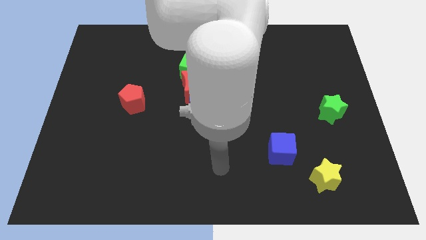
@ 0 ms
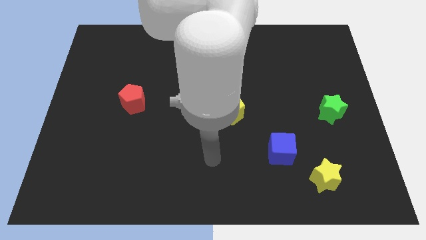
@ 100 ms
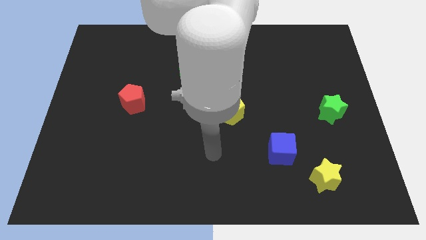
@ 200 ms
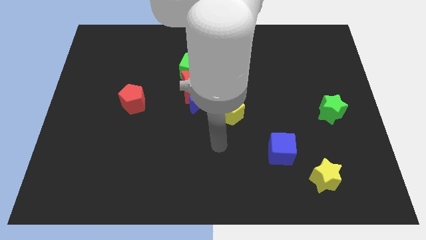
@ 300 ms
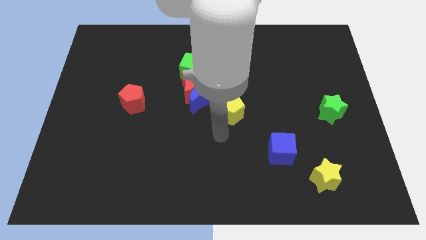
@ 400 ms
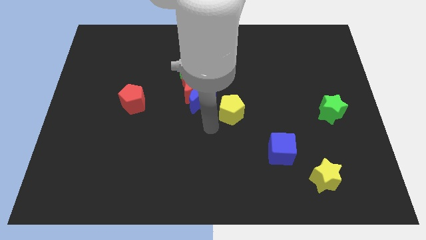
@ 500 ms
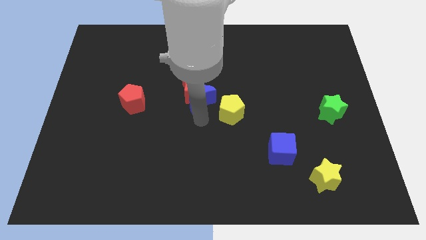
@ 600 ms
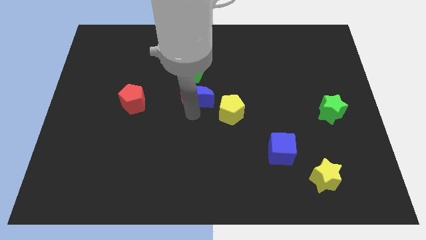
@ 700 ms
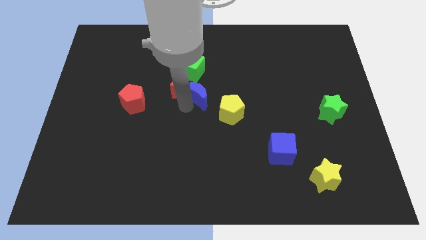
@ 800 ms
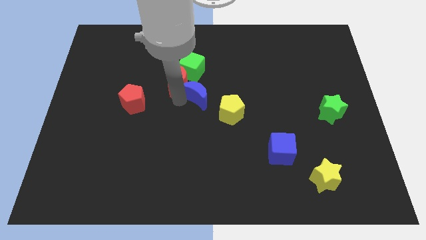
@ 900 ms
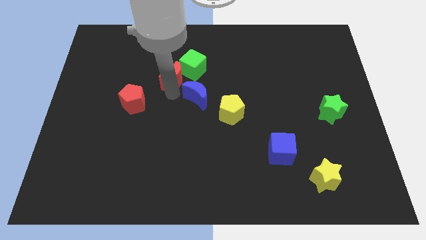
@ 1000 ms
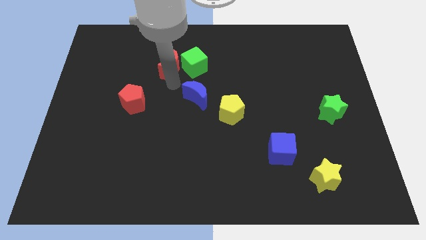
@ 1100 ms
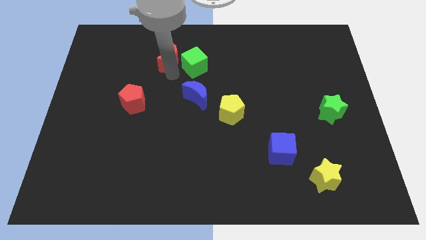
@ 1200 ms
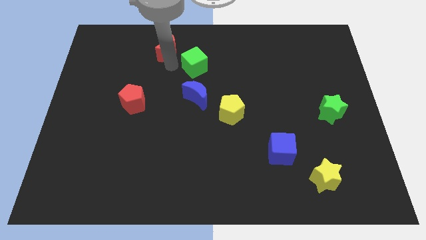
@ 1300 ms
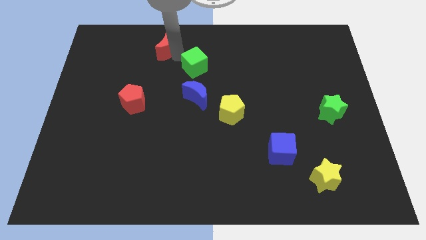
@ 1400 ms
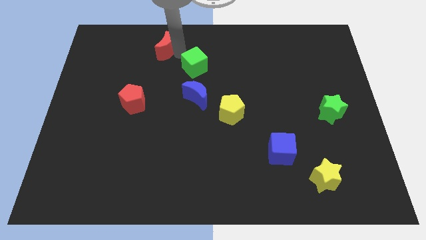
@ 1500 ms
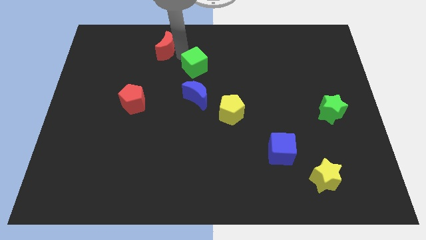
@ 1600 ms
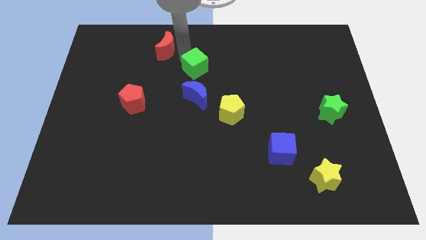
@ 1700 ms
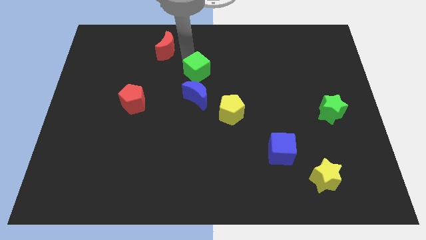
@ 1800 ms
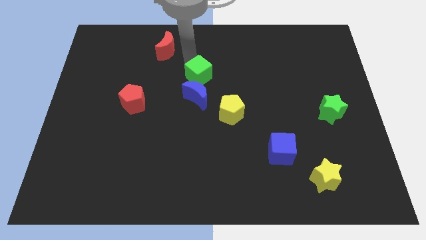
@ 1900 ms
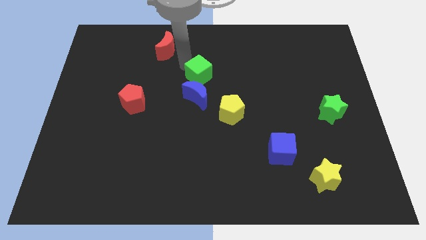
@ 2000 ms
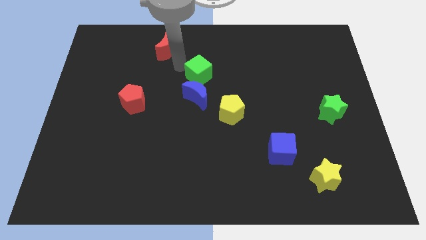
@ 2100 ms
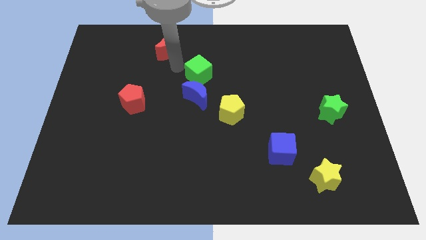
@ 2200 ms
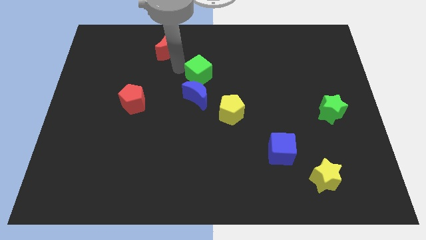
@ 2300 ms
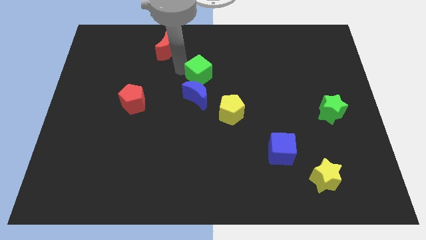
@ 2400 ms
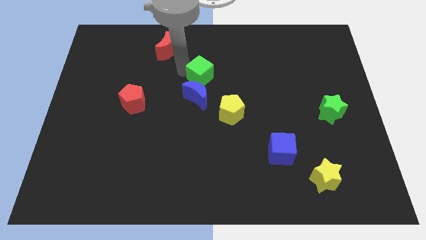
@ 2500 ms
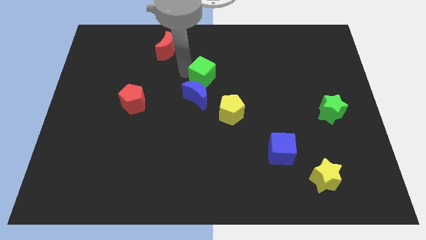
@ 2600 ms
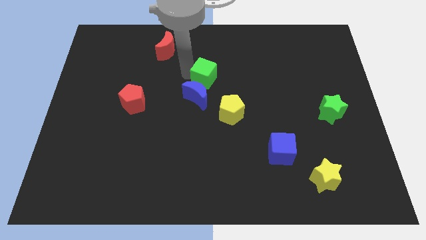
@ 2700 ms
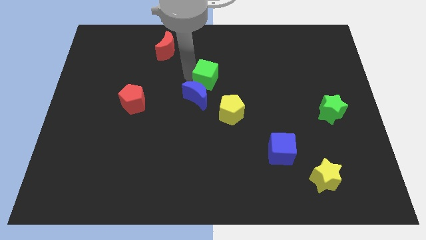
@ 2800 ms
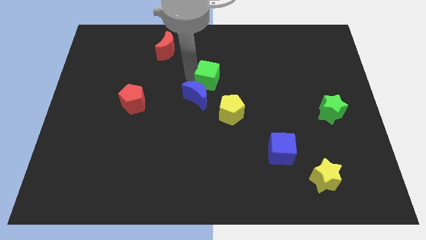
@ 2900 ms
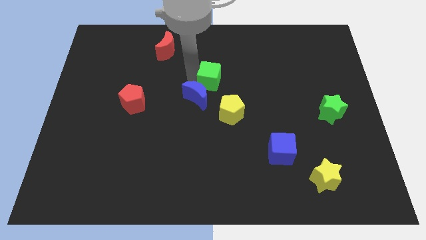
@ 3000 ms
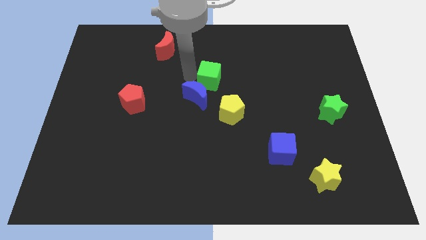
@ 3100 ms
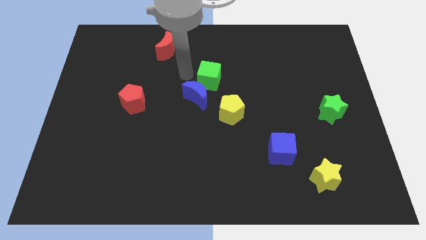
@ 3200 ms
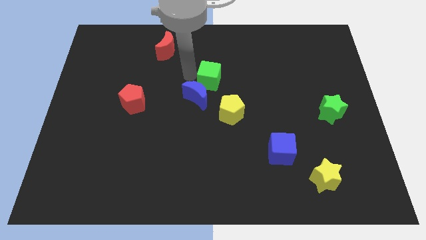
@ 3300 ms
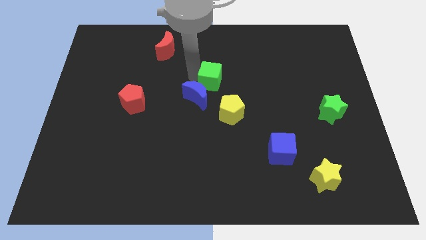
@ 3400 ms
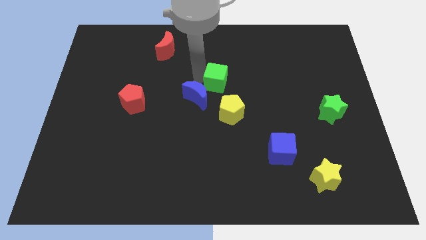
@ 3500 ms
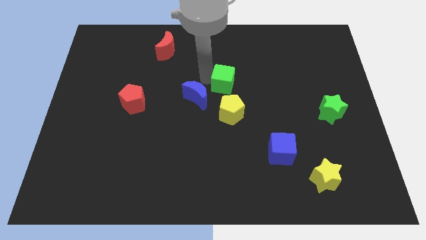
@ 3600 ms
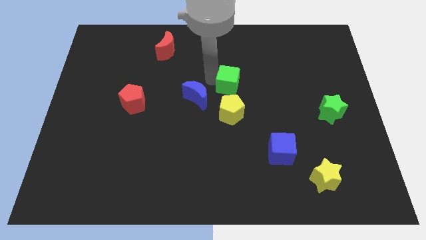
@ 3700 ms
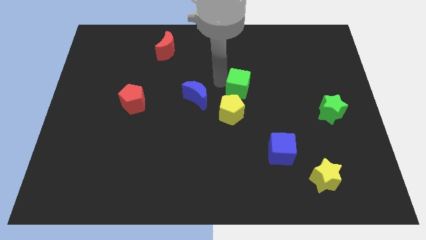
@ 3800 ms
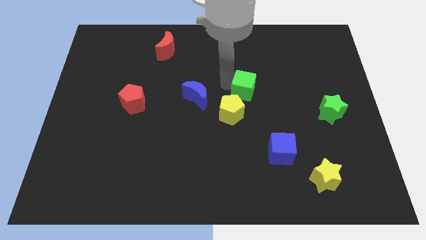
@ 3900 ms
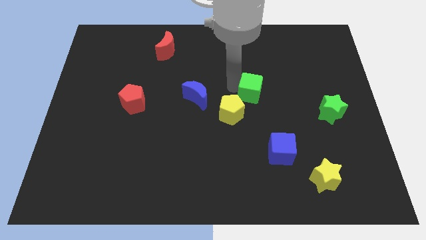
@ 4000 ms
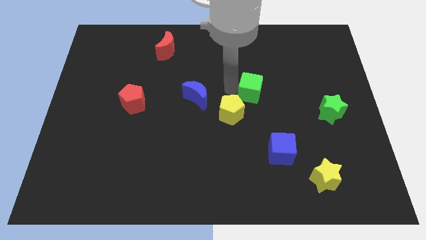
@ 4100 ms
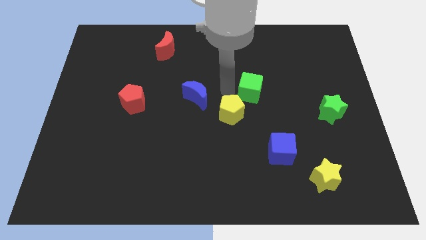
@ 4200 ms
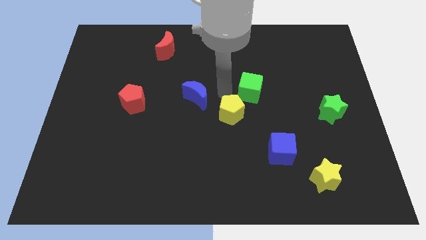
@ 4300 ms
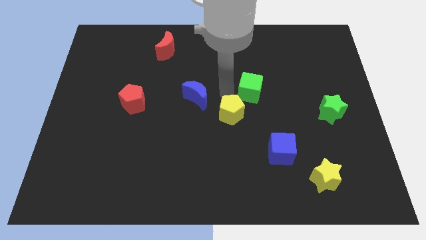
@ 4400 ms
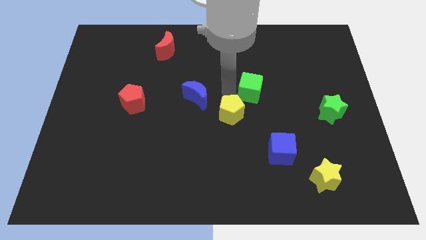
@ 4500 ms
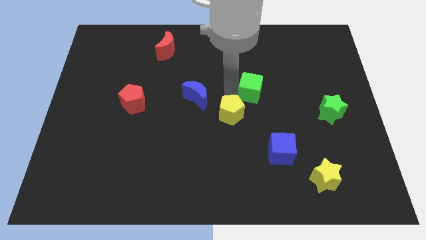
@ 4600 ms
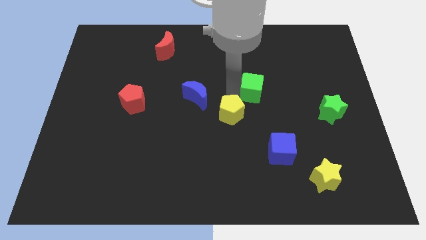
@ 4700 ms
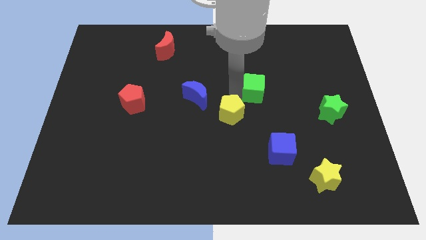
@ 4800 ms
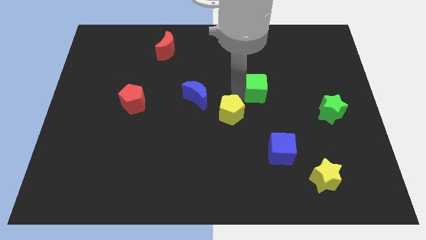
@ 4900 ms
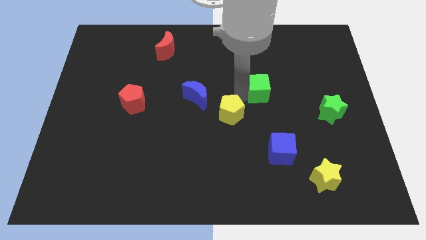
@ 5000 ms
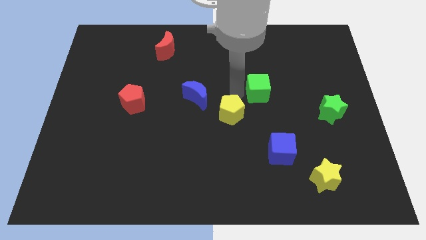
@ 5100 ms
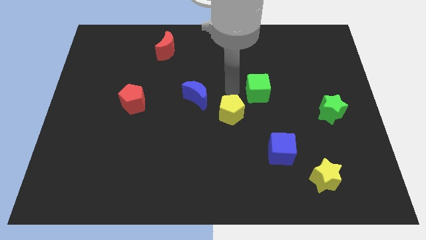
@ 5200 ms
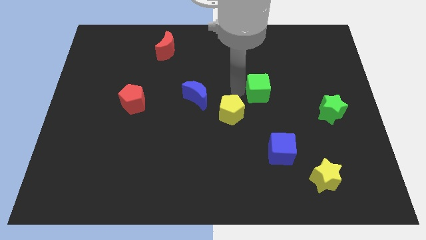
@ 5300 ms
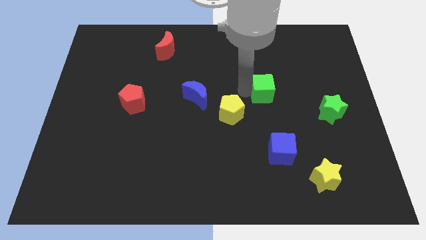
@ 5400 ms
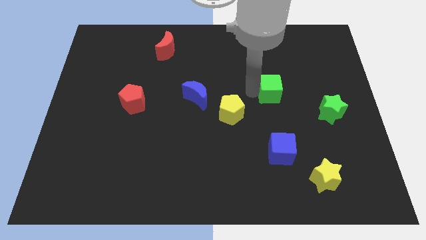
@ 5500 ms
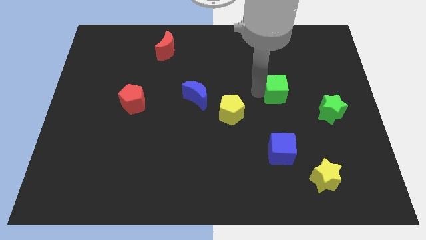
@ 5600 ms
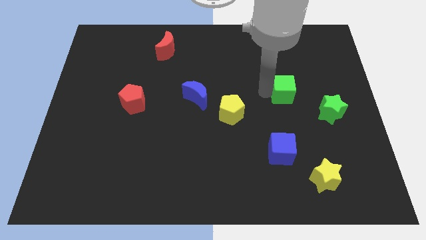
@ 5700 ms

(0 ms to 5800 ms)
move the green cube diagonally up and to the left of the green star

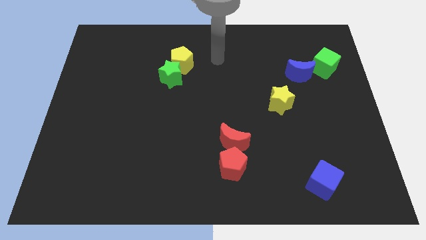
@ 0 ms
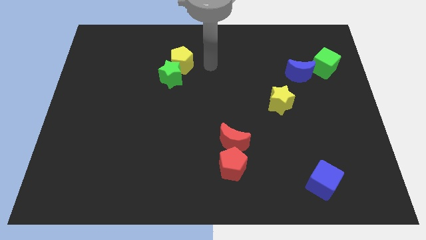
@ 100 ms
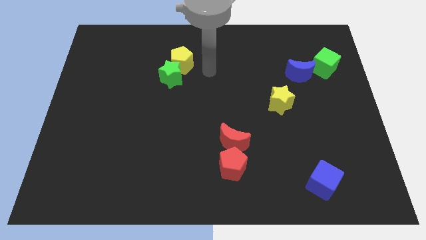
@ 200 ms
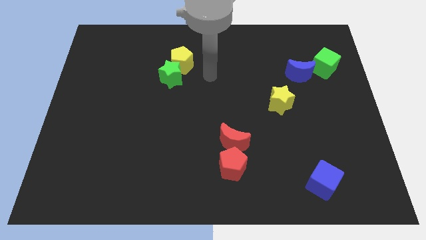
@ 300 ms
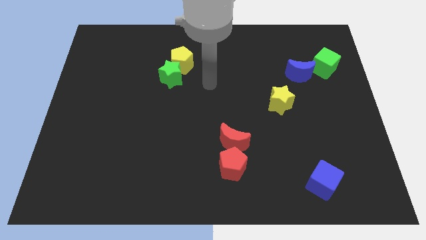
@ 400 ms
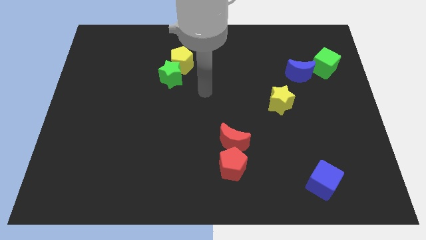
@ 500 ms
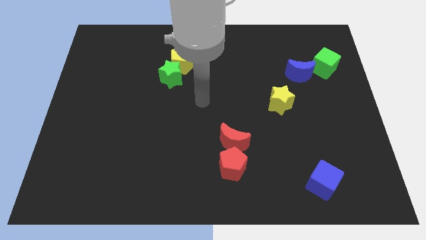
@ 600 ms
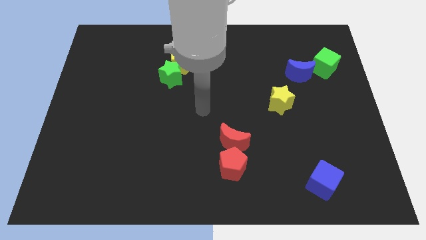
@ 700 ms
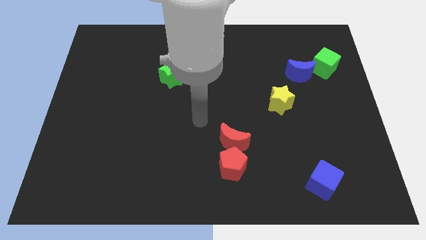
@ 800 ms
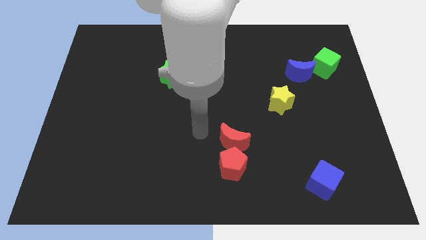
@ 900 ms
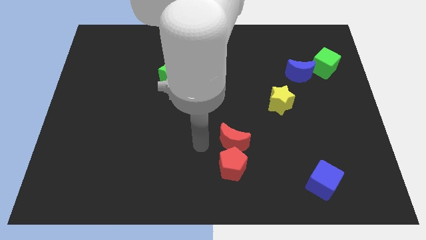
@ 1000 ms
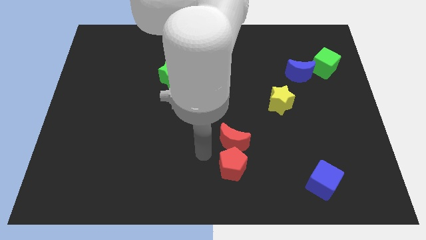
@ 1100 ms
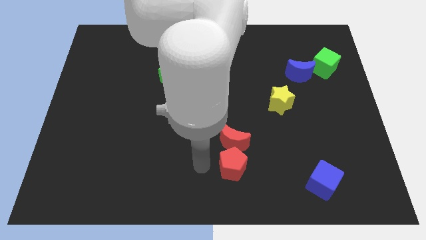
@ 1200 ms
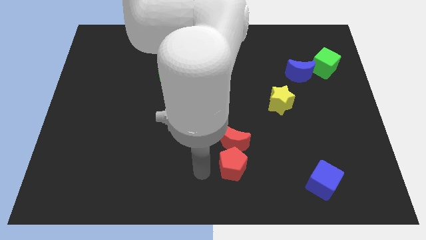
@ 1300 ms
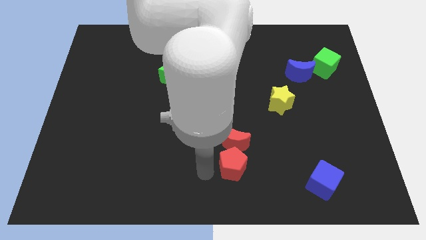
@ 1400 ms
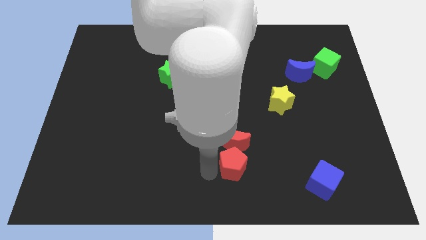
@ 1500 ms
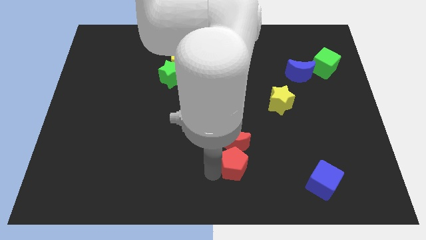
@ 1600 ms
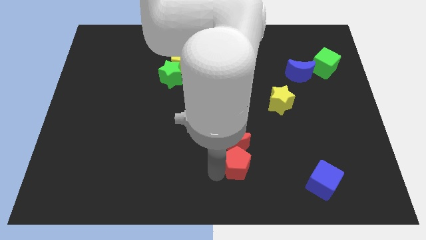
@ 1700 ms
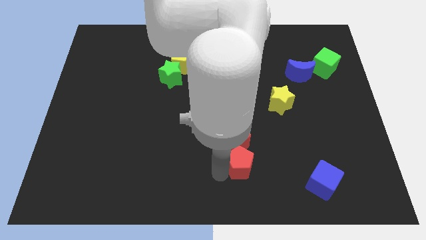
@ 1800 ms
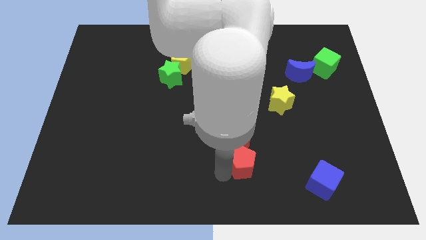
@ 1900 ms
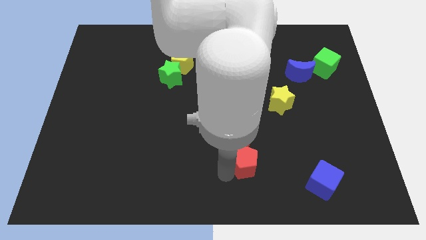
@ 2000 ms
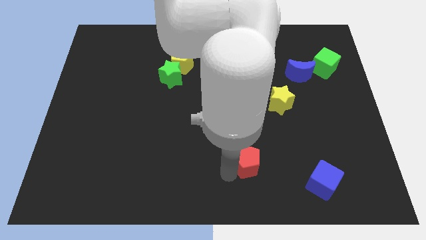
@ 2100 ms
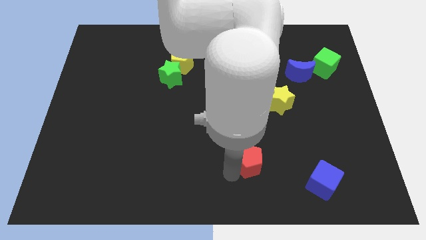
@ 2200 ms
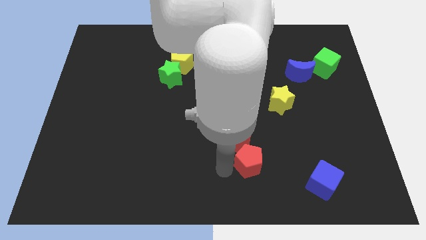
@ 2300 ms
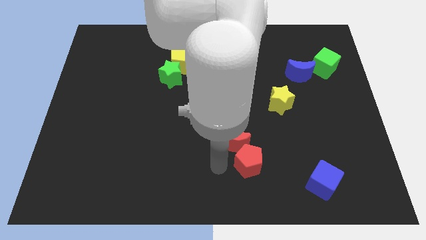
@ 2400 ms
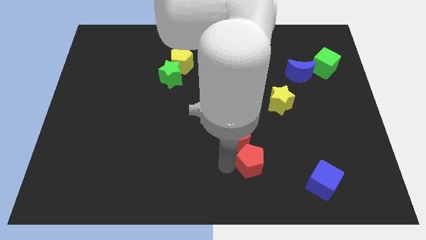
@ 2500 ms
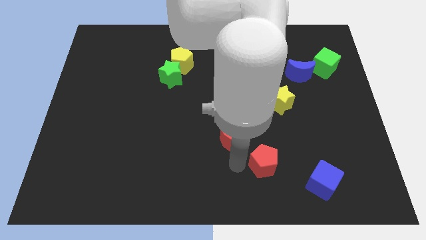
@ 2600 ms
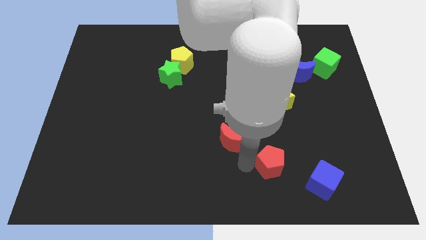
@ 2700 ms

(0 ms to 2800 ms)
move the red pentagon to the top left side of the blue cube
